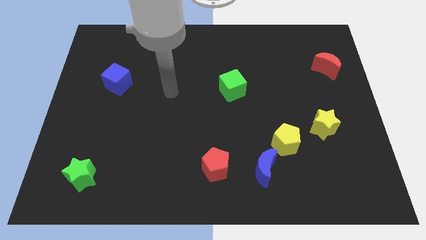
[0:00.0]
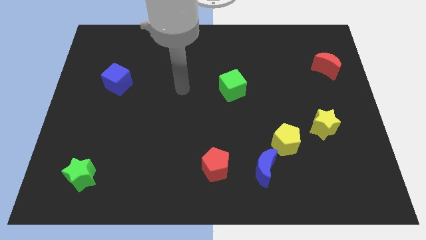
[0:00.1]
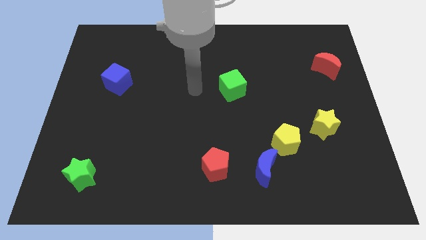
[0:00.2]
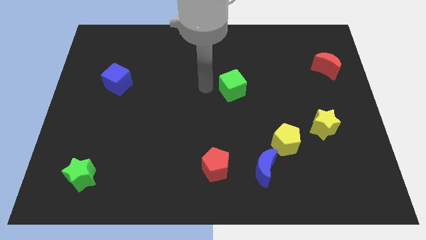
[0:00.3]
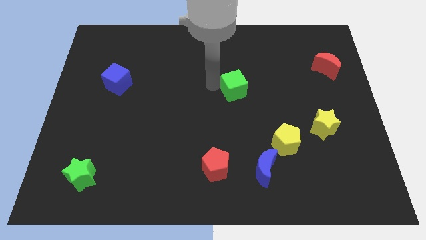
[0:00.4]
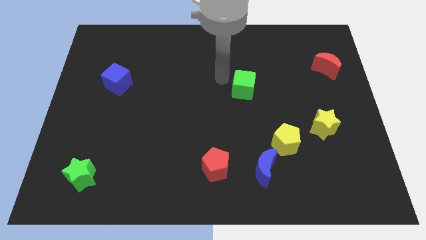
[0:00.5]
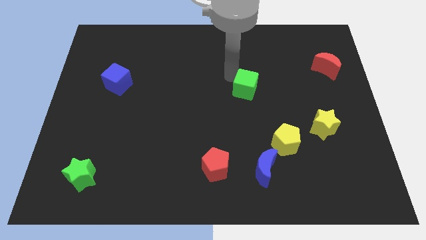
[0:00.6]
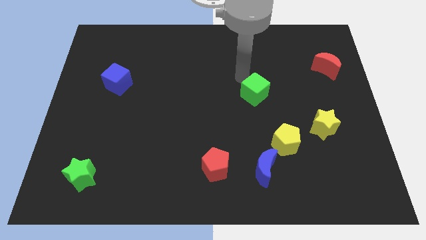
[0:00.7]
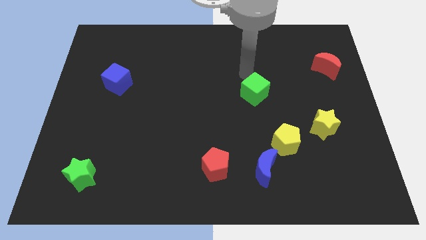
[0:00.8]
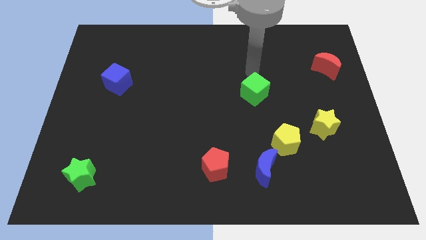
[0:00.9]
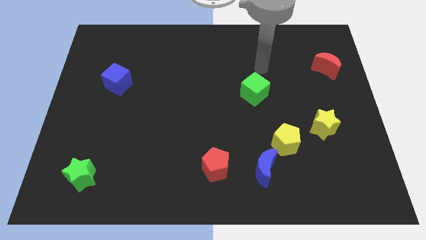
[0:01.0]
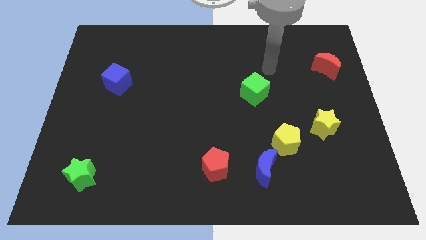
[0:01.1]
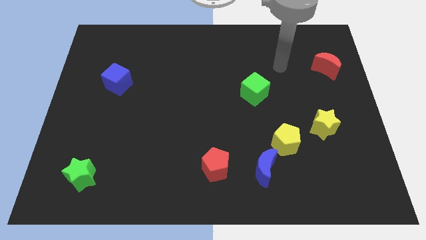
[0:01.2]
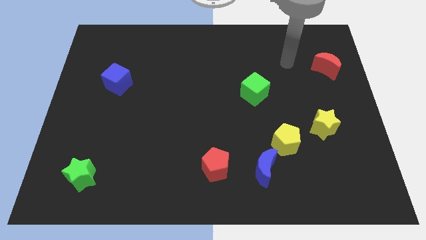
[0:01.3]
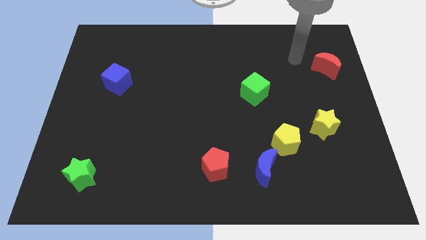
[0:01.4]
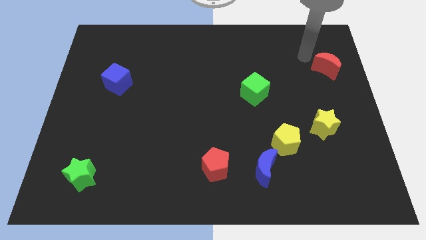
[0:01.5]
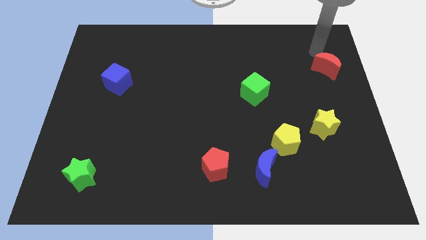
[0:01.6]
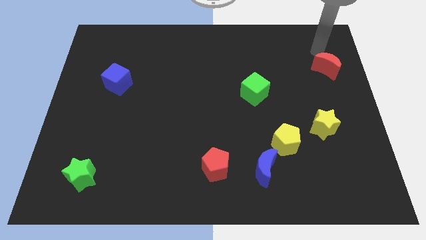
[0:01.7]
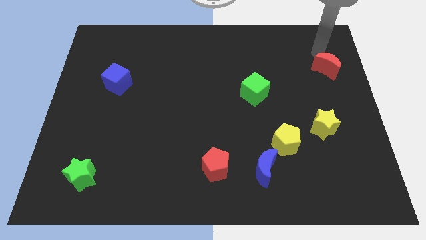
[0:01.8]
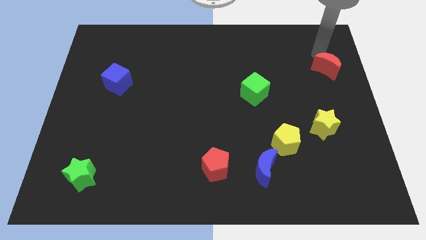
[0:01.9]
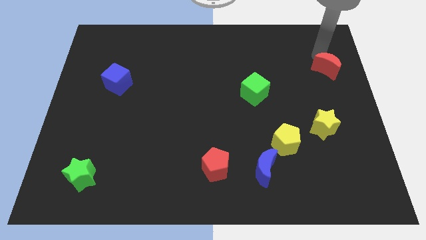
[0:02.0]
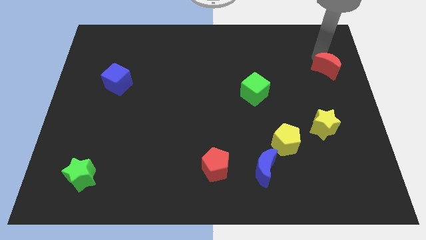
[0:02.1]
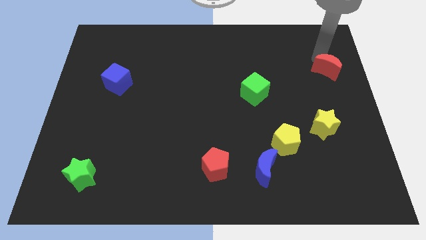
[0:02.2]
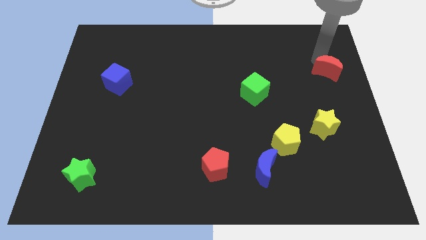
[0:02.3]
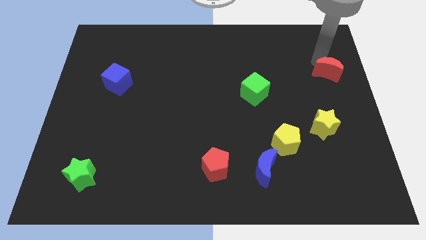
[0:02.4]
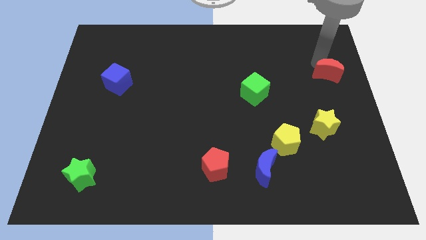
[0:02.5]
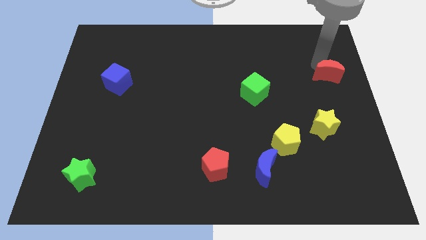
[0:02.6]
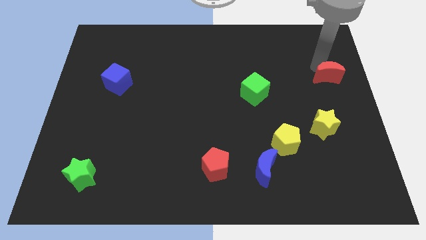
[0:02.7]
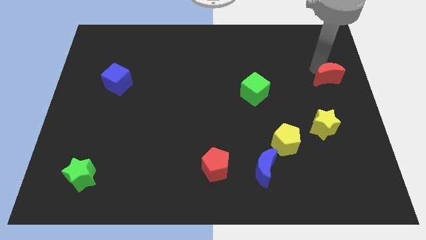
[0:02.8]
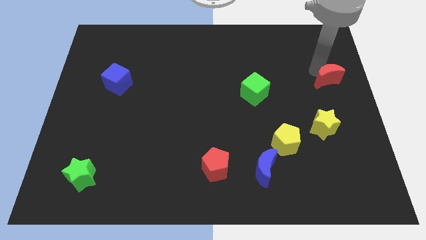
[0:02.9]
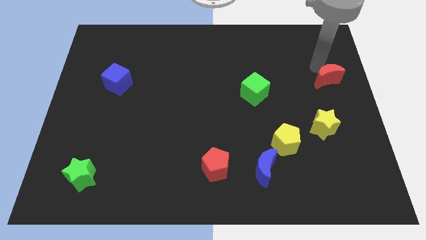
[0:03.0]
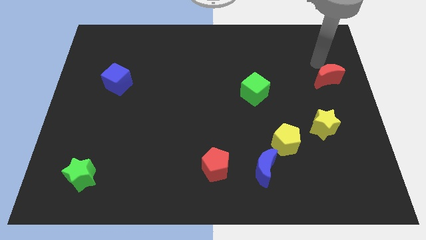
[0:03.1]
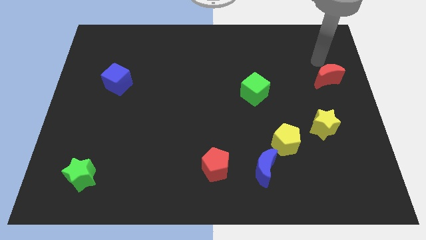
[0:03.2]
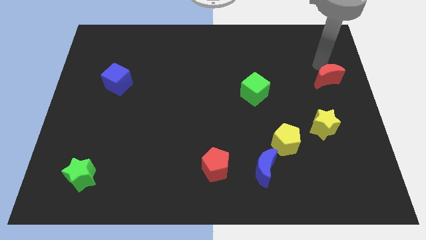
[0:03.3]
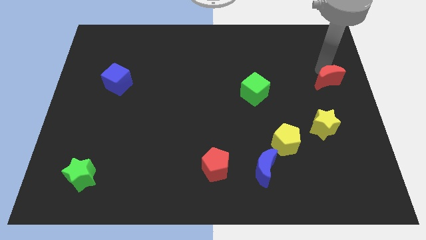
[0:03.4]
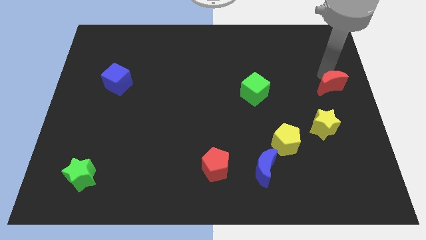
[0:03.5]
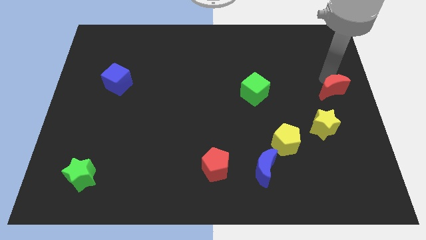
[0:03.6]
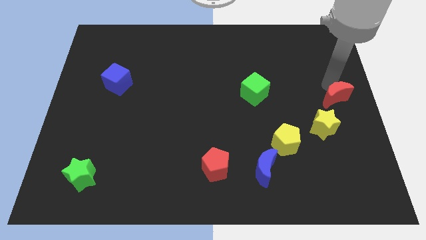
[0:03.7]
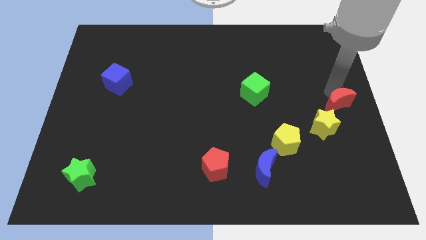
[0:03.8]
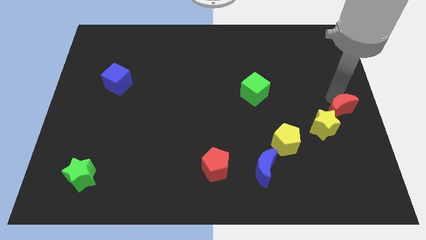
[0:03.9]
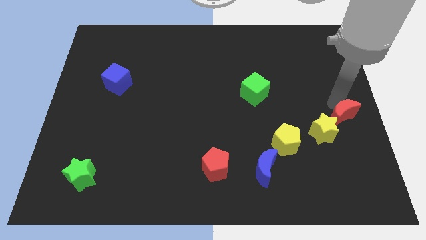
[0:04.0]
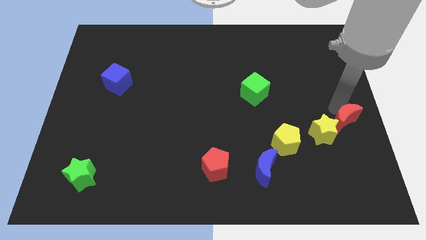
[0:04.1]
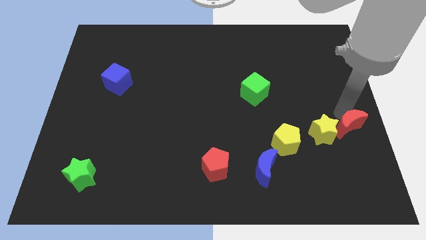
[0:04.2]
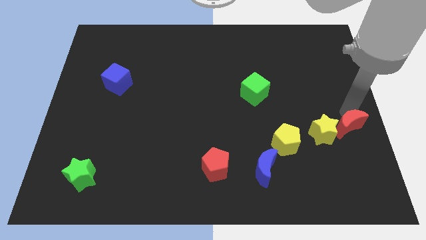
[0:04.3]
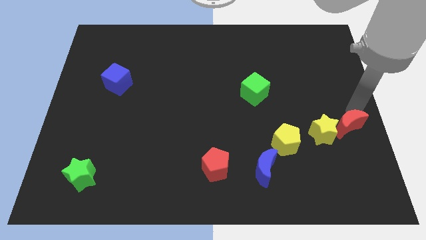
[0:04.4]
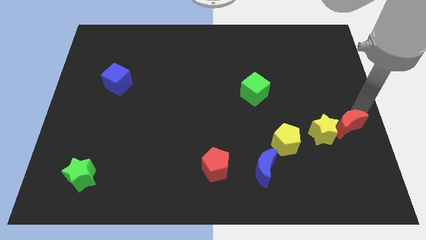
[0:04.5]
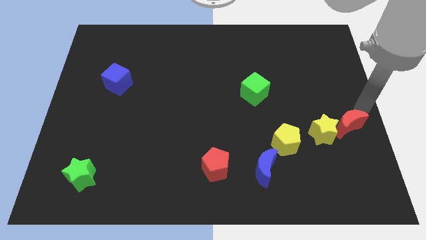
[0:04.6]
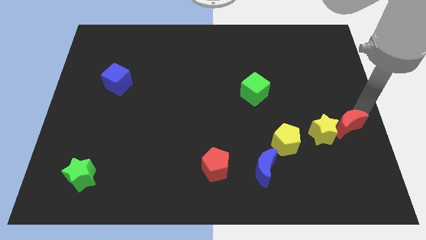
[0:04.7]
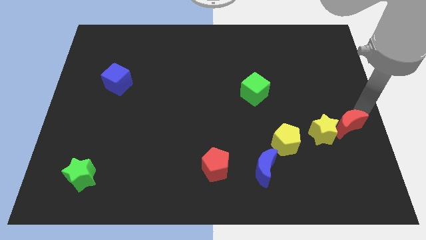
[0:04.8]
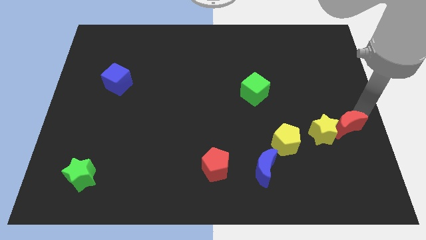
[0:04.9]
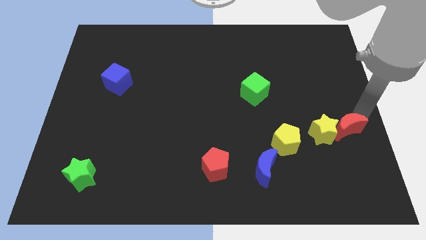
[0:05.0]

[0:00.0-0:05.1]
put the red moon right of the yellow pentagon

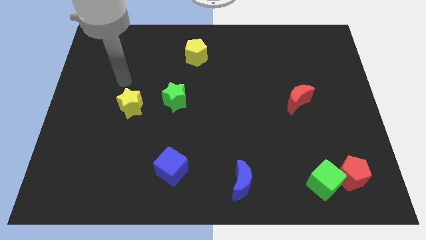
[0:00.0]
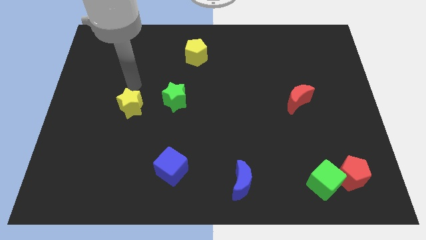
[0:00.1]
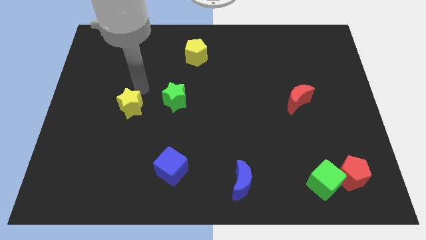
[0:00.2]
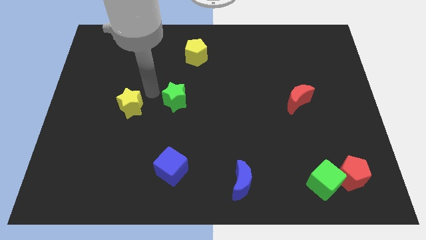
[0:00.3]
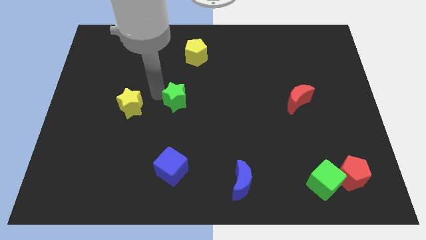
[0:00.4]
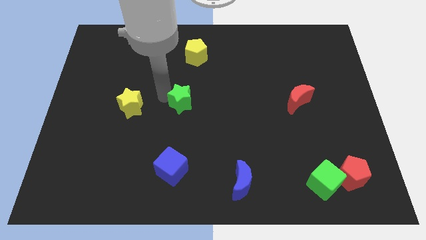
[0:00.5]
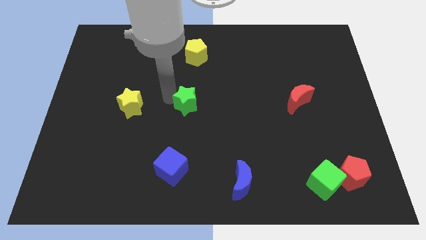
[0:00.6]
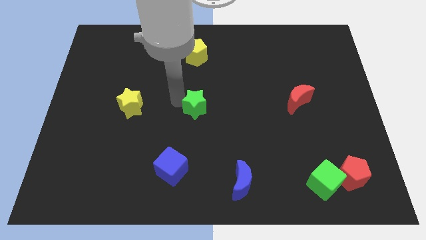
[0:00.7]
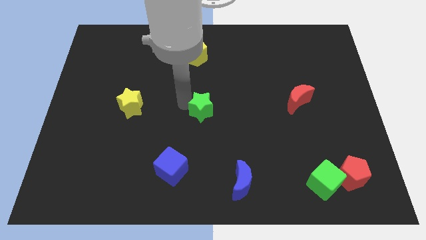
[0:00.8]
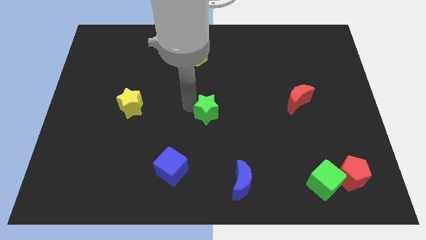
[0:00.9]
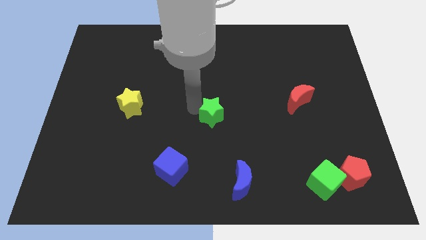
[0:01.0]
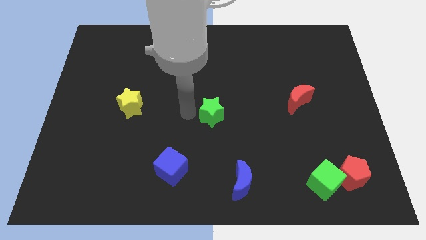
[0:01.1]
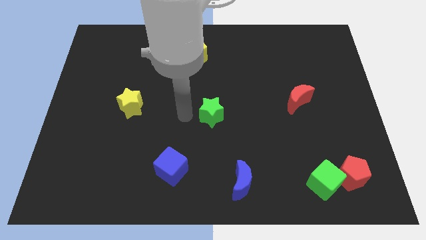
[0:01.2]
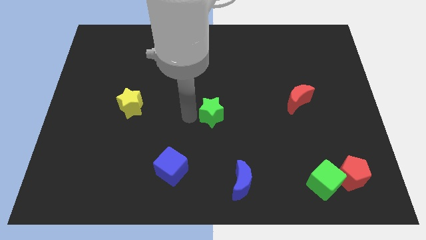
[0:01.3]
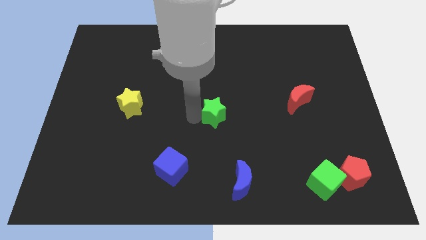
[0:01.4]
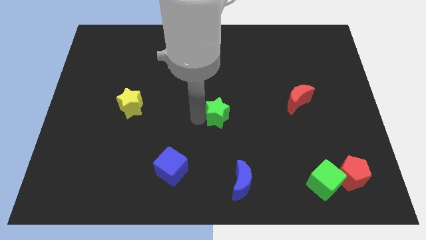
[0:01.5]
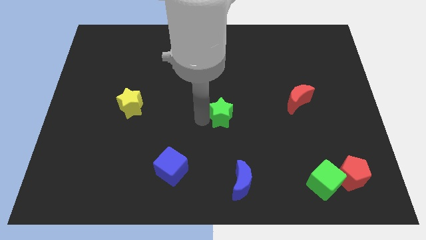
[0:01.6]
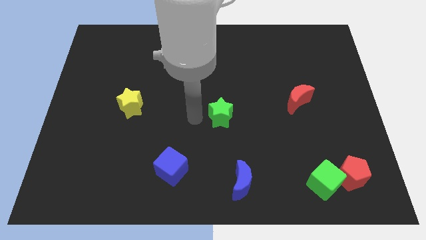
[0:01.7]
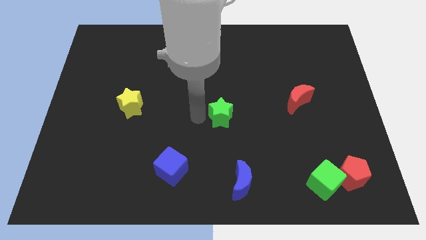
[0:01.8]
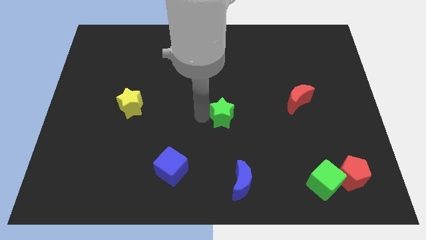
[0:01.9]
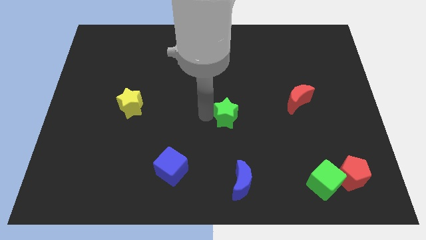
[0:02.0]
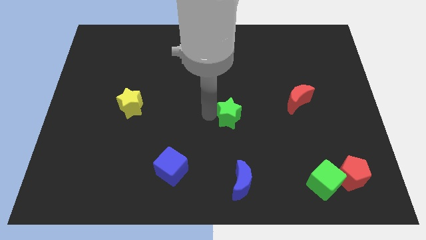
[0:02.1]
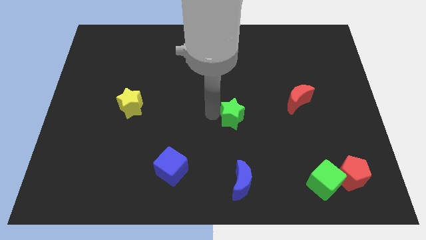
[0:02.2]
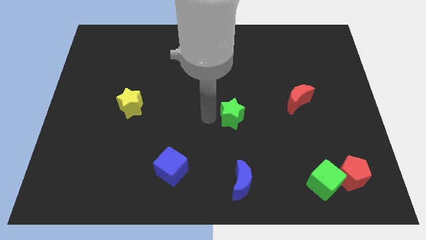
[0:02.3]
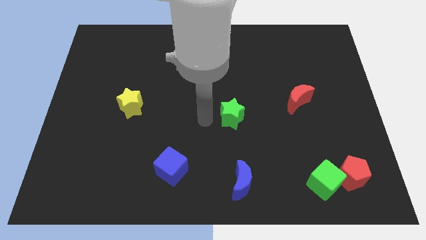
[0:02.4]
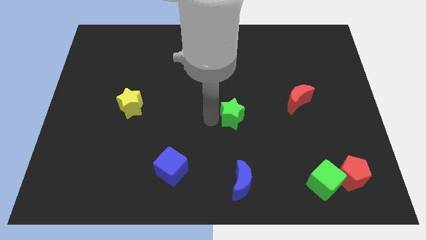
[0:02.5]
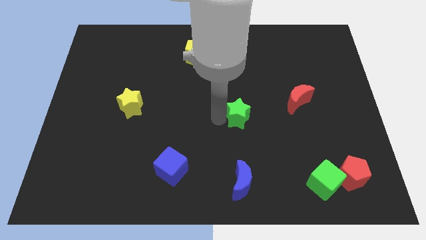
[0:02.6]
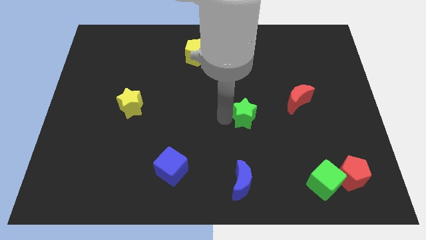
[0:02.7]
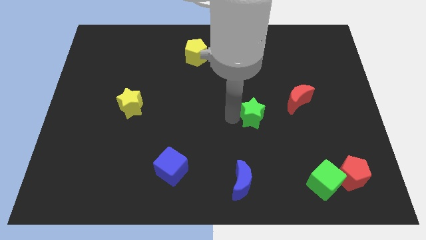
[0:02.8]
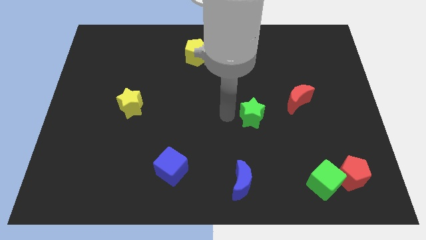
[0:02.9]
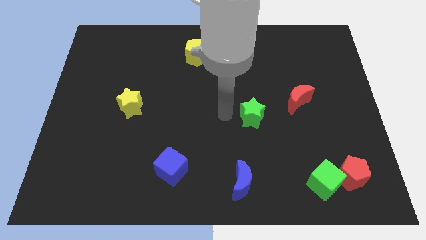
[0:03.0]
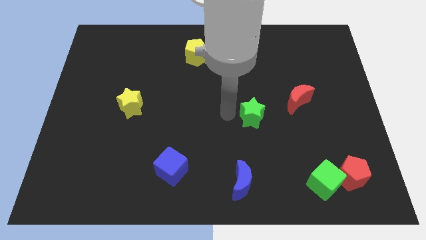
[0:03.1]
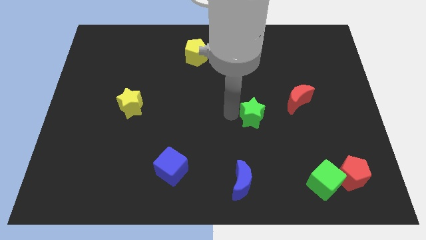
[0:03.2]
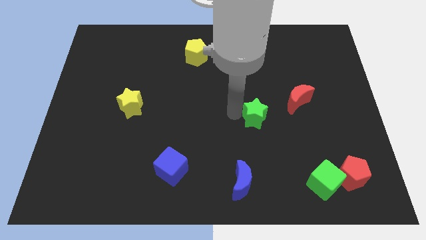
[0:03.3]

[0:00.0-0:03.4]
slide the green star diagonally down and to the left of the red moon
